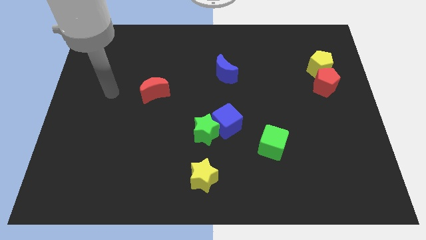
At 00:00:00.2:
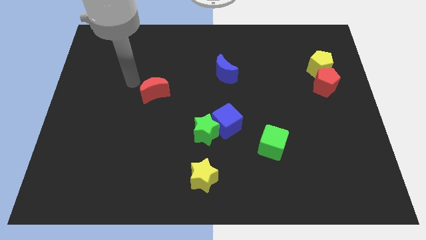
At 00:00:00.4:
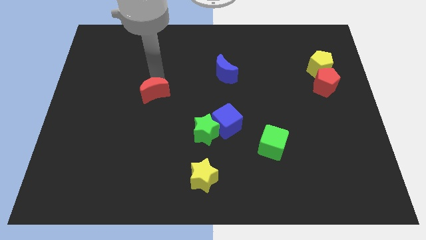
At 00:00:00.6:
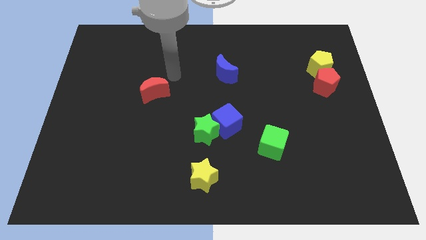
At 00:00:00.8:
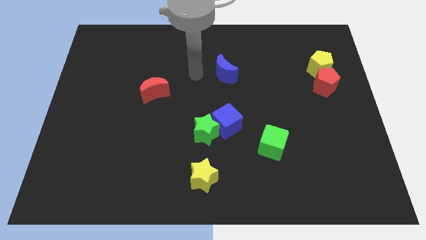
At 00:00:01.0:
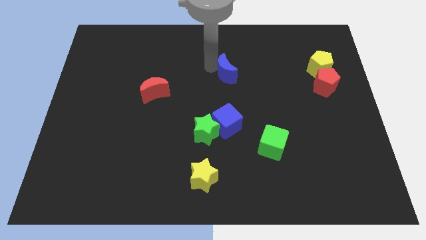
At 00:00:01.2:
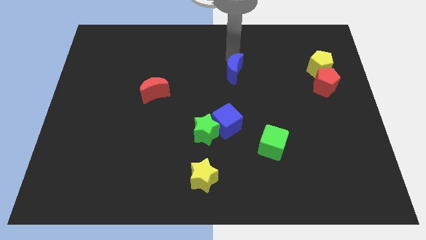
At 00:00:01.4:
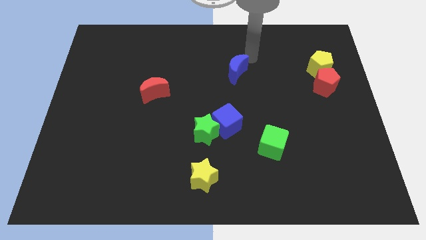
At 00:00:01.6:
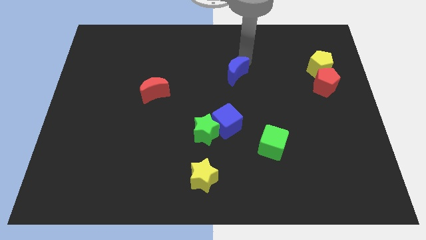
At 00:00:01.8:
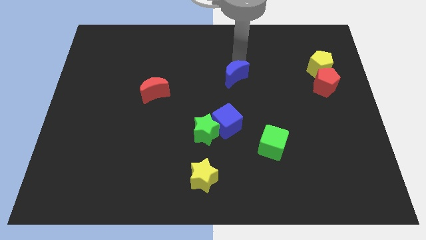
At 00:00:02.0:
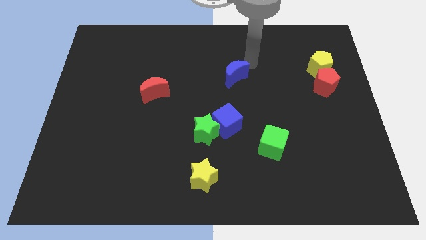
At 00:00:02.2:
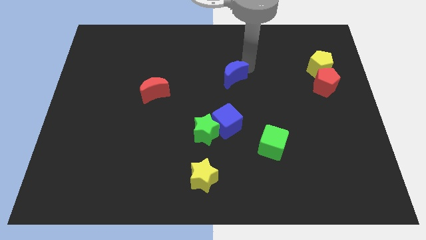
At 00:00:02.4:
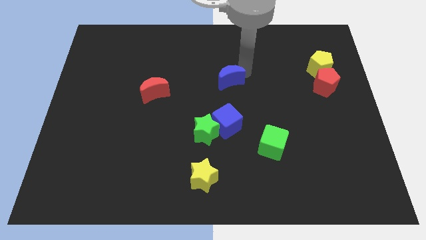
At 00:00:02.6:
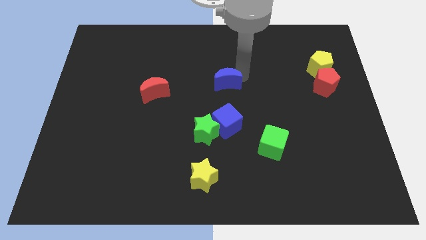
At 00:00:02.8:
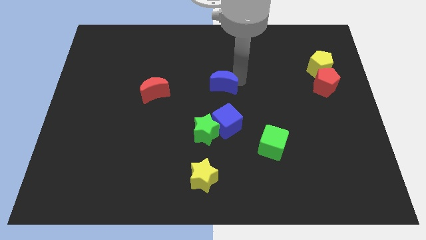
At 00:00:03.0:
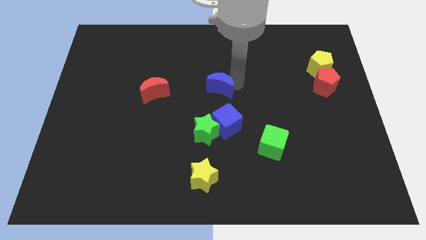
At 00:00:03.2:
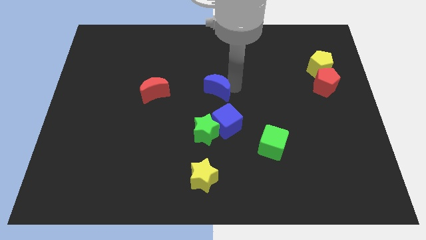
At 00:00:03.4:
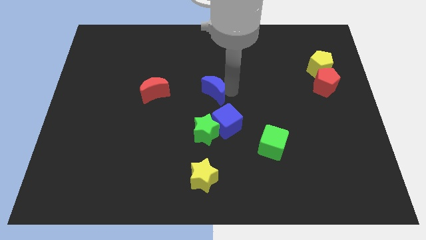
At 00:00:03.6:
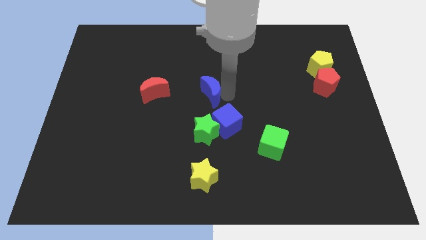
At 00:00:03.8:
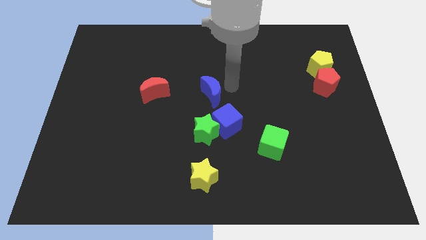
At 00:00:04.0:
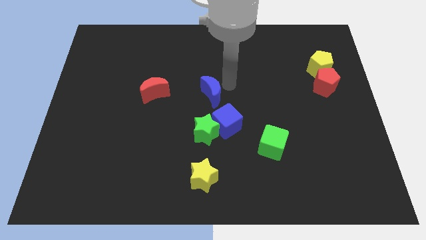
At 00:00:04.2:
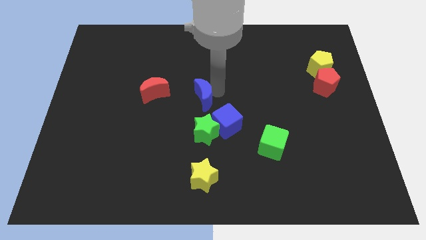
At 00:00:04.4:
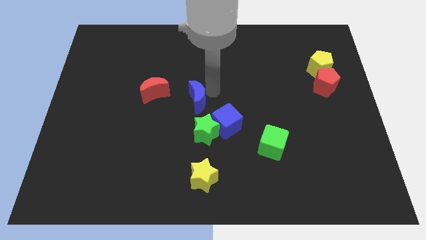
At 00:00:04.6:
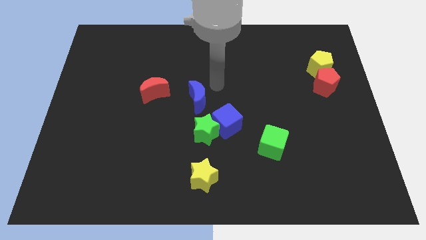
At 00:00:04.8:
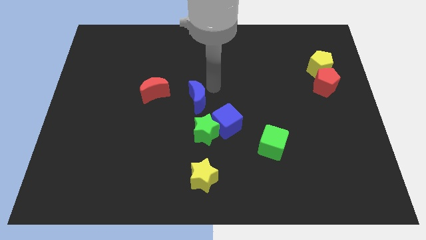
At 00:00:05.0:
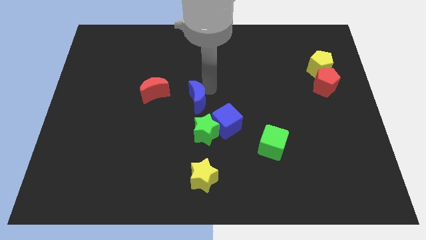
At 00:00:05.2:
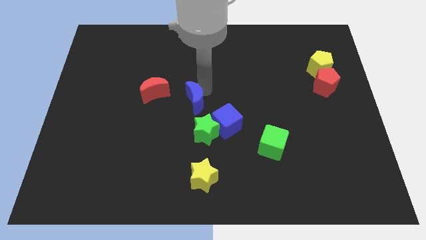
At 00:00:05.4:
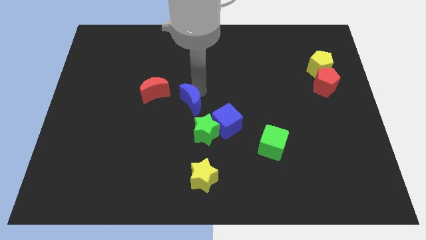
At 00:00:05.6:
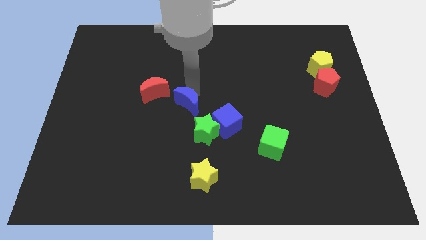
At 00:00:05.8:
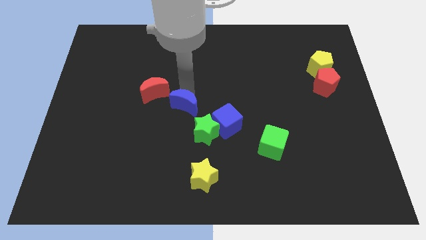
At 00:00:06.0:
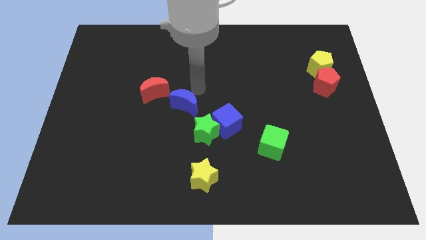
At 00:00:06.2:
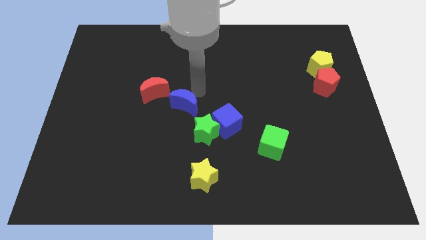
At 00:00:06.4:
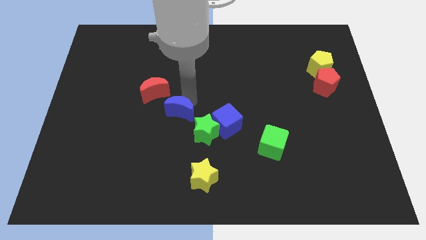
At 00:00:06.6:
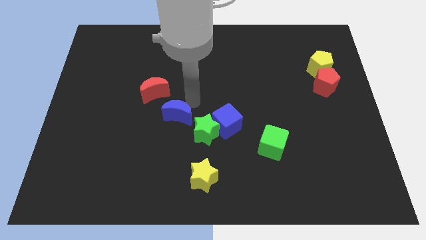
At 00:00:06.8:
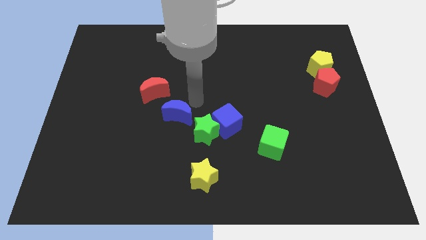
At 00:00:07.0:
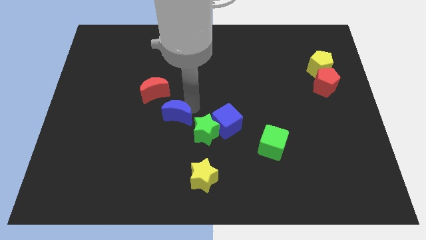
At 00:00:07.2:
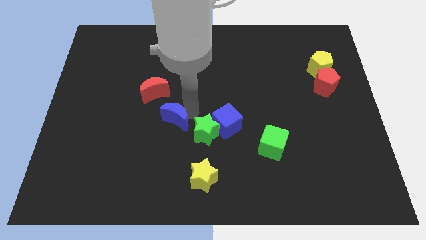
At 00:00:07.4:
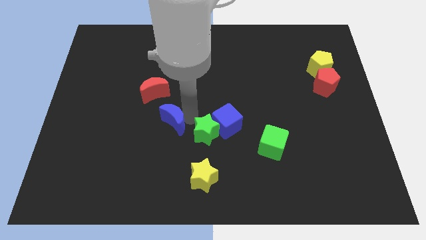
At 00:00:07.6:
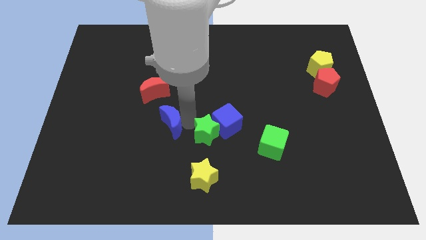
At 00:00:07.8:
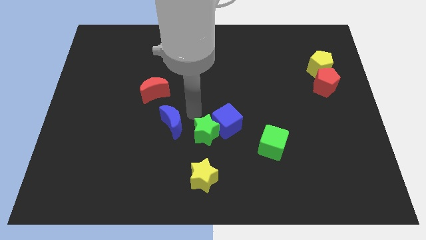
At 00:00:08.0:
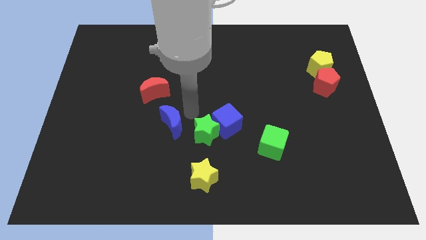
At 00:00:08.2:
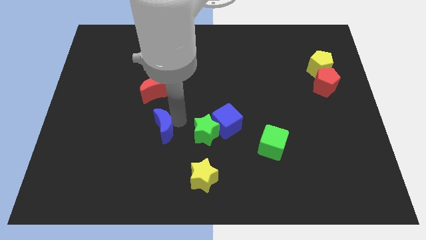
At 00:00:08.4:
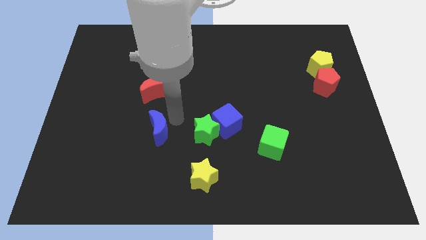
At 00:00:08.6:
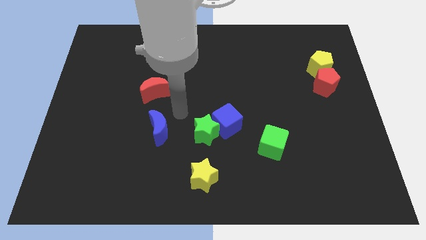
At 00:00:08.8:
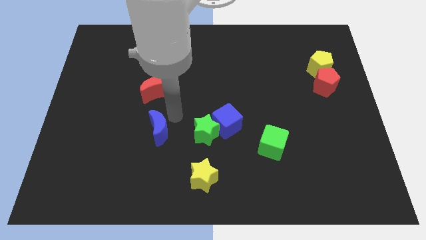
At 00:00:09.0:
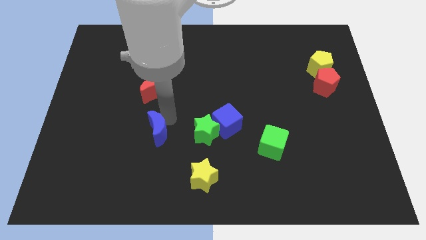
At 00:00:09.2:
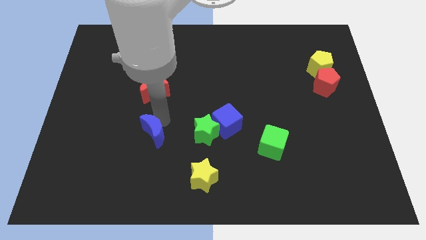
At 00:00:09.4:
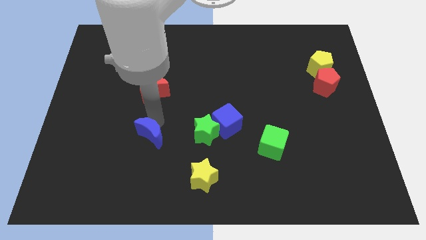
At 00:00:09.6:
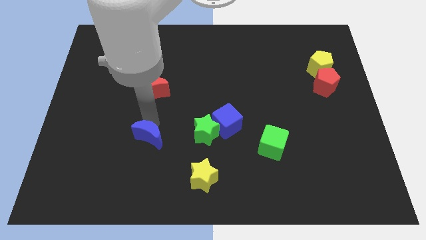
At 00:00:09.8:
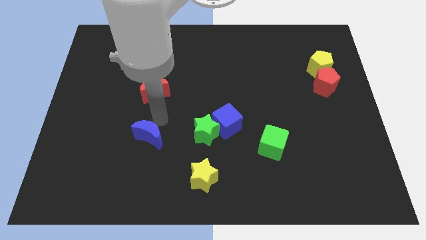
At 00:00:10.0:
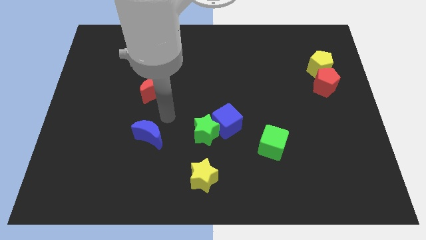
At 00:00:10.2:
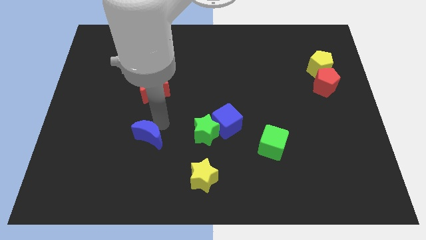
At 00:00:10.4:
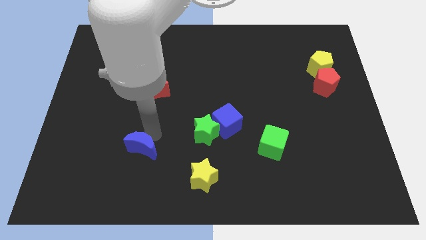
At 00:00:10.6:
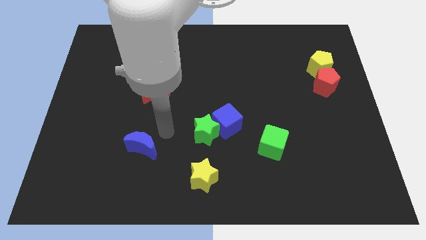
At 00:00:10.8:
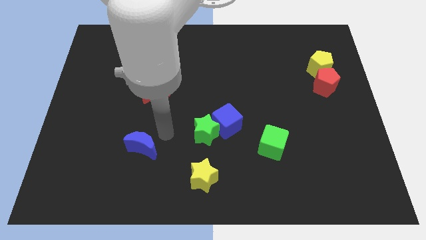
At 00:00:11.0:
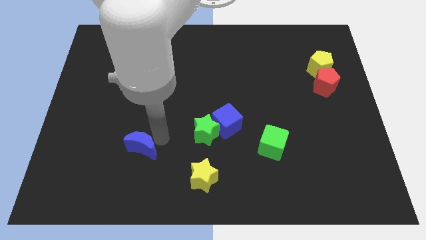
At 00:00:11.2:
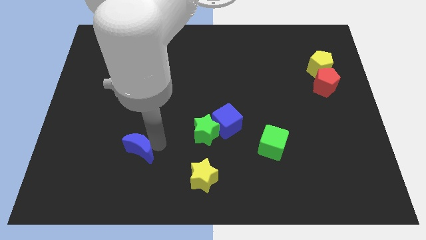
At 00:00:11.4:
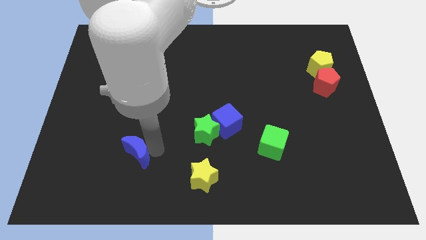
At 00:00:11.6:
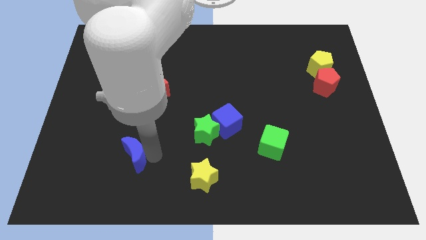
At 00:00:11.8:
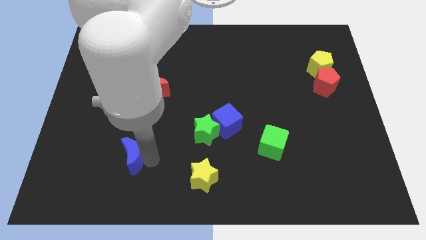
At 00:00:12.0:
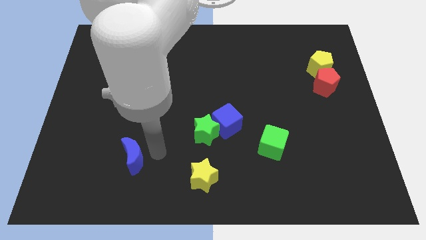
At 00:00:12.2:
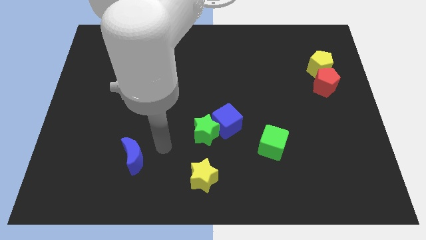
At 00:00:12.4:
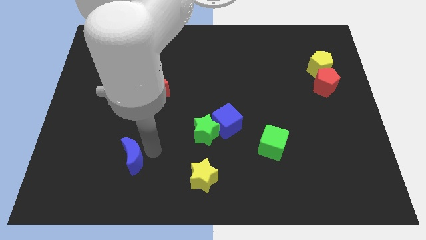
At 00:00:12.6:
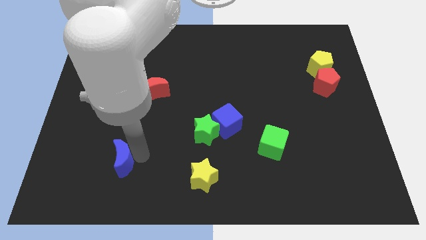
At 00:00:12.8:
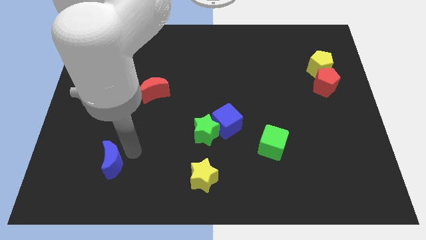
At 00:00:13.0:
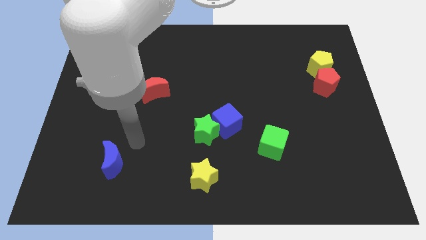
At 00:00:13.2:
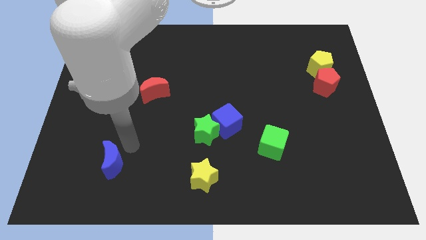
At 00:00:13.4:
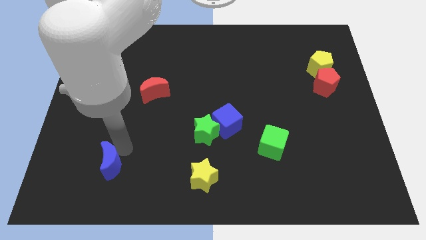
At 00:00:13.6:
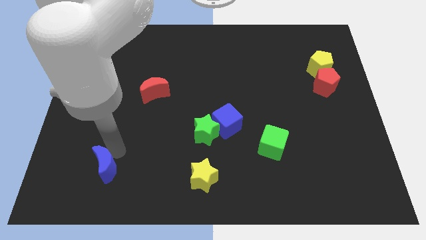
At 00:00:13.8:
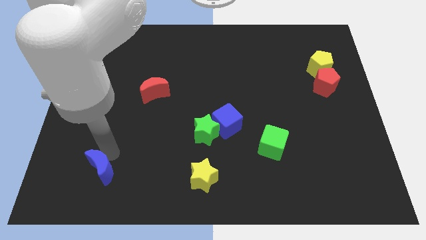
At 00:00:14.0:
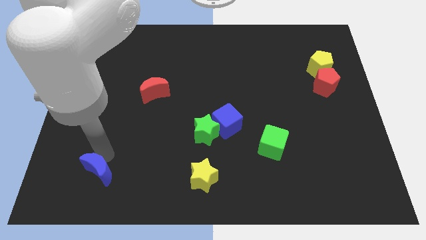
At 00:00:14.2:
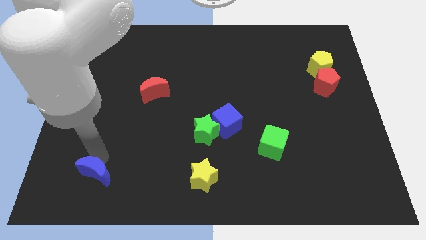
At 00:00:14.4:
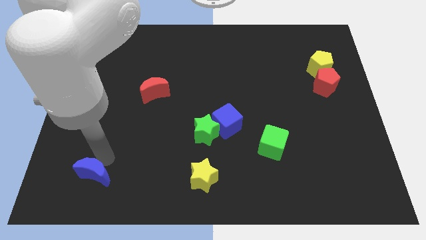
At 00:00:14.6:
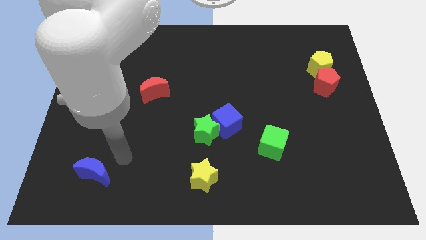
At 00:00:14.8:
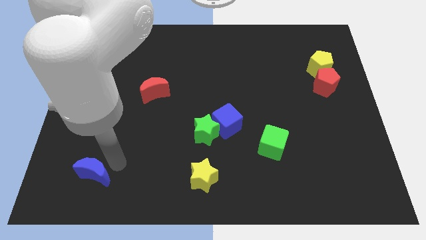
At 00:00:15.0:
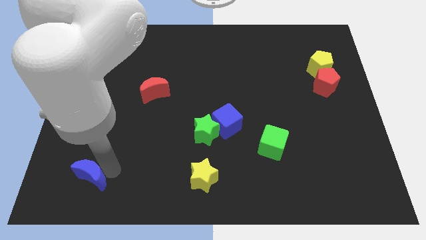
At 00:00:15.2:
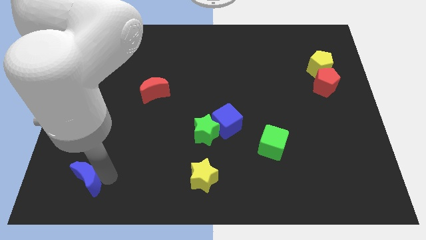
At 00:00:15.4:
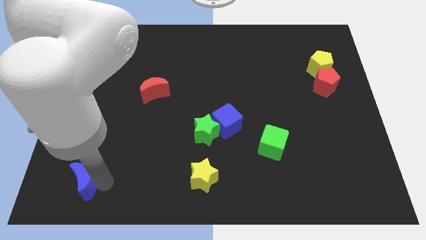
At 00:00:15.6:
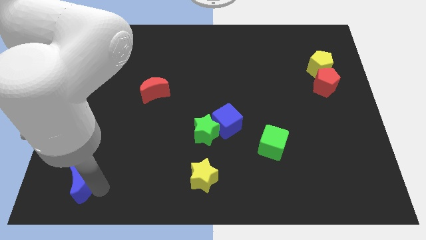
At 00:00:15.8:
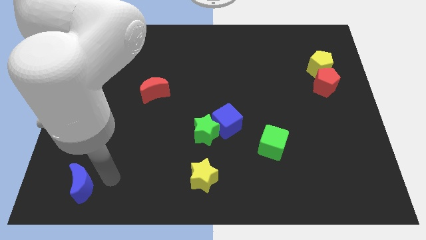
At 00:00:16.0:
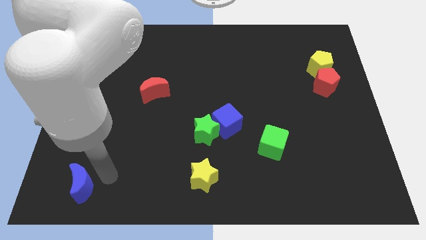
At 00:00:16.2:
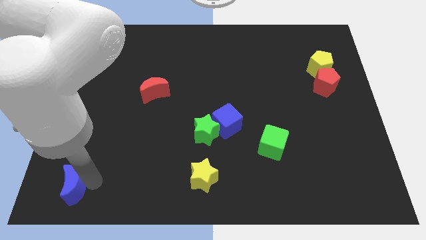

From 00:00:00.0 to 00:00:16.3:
move the blue moon to the lower left corner
